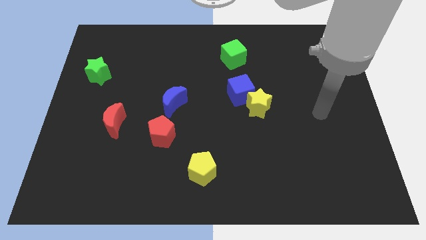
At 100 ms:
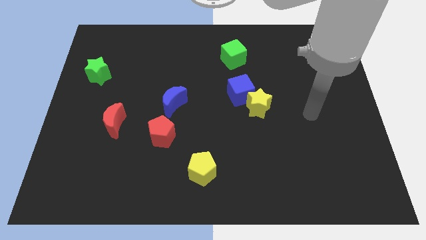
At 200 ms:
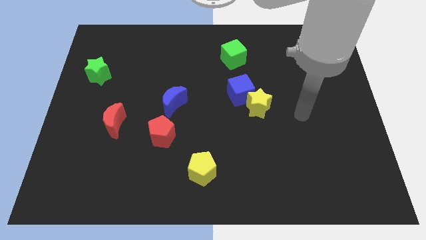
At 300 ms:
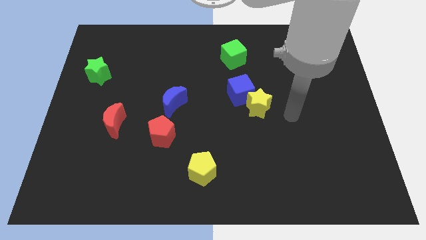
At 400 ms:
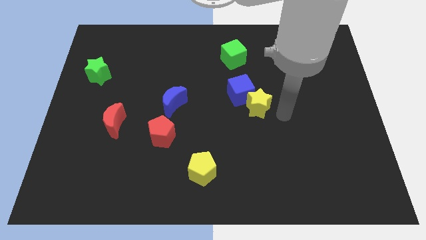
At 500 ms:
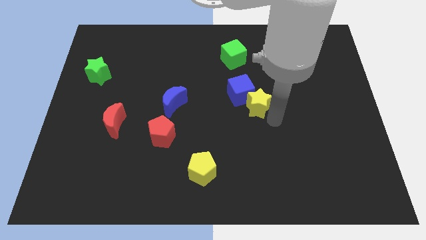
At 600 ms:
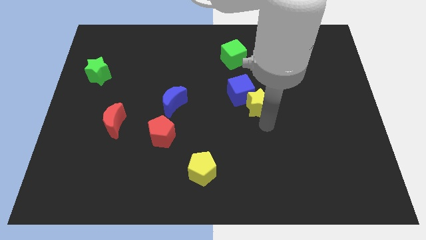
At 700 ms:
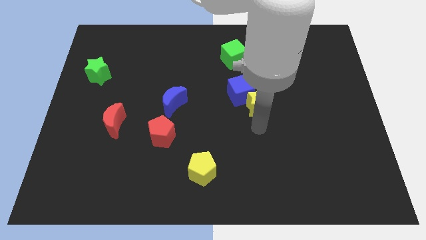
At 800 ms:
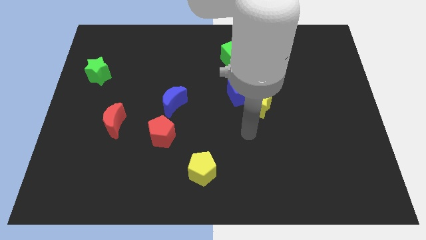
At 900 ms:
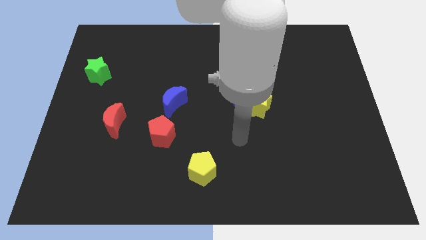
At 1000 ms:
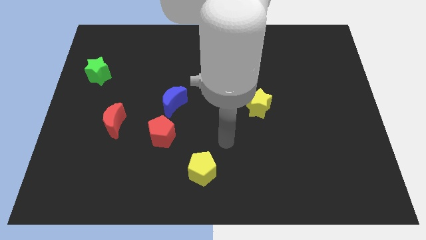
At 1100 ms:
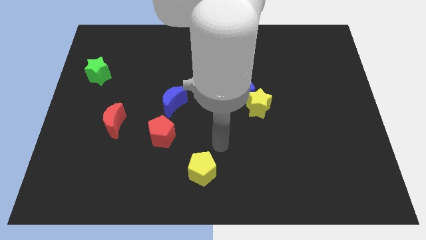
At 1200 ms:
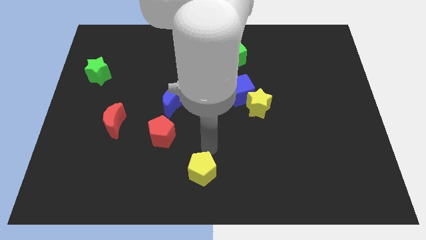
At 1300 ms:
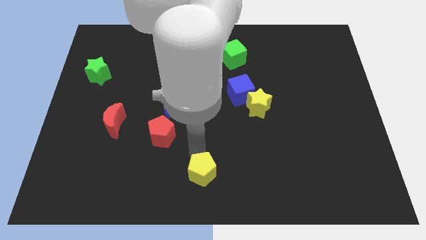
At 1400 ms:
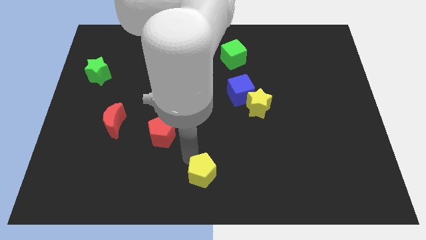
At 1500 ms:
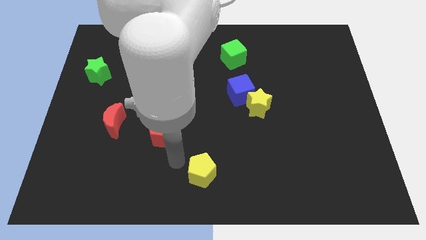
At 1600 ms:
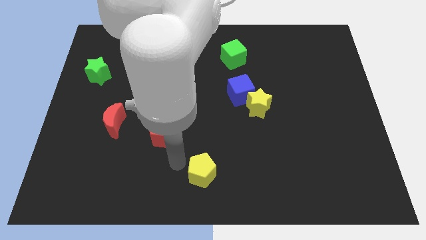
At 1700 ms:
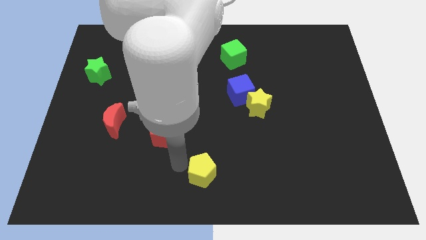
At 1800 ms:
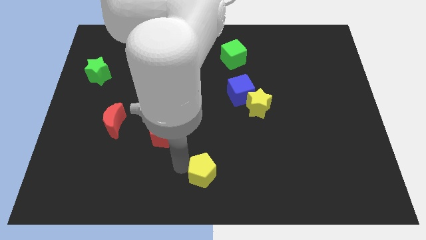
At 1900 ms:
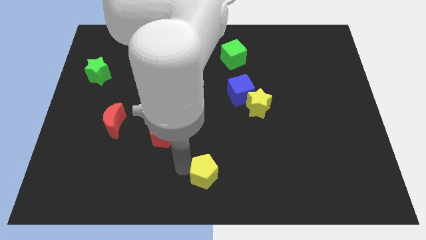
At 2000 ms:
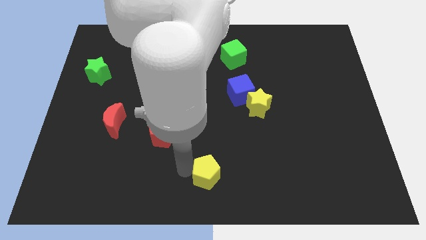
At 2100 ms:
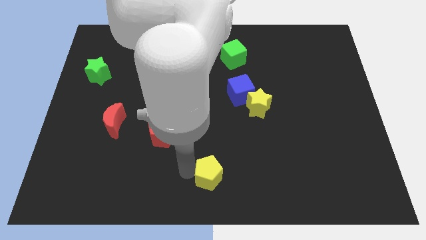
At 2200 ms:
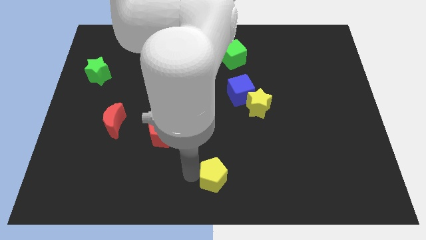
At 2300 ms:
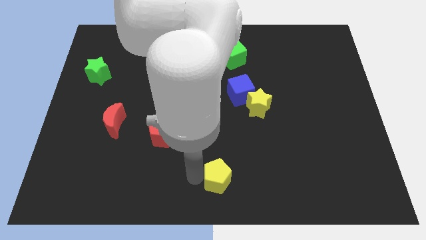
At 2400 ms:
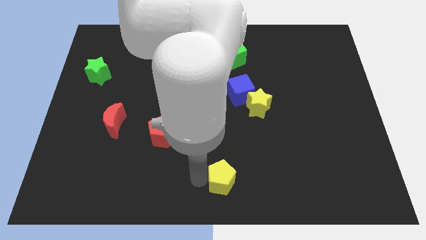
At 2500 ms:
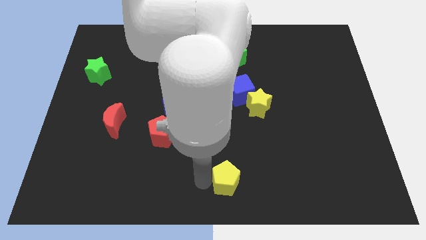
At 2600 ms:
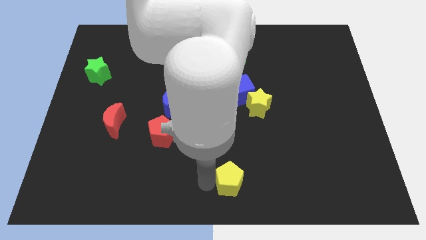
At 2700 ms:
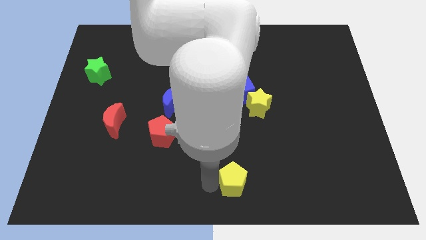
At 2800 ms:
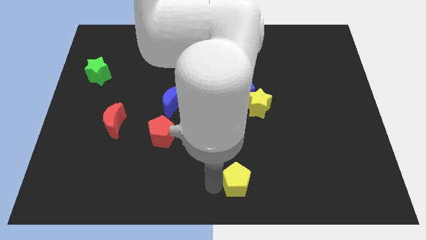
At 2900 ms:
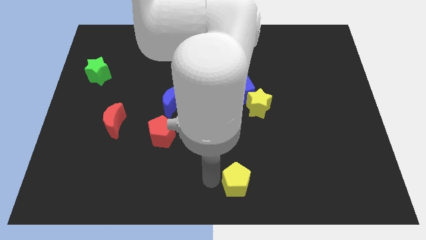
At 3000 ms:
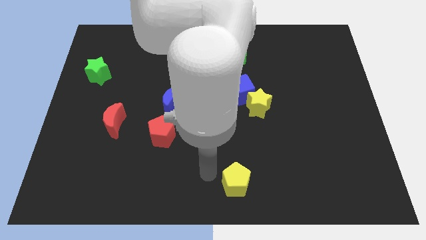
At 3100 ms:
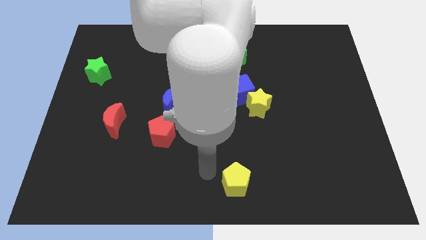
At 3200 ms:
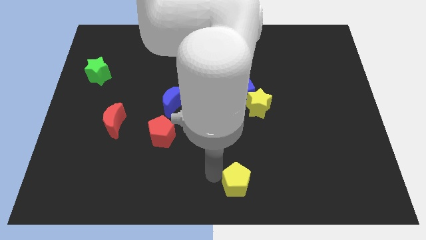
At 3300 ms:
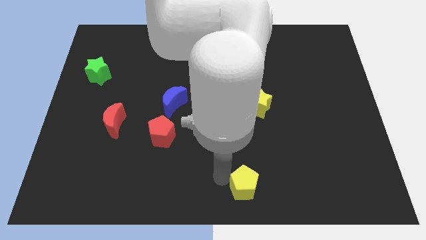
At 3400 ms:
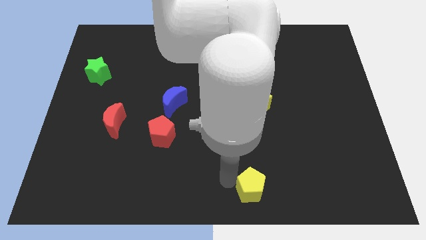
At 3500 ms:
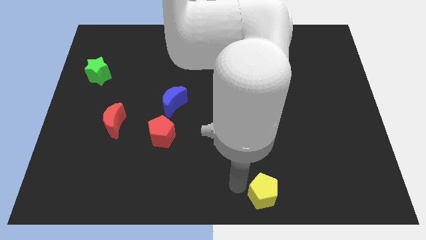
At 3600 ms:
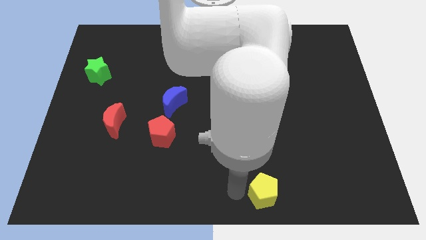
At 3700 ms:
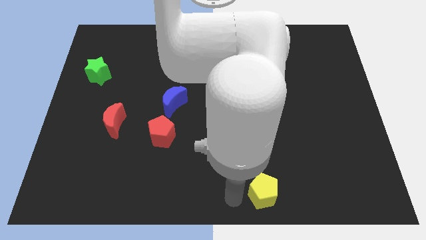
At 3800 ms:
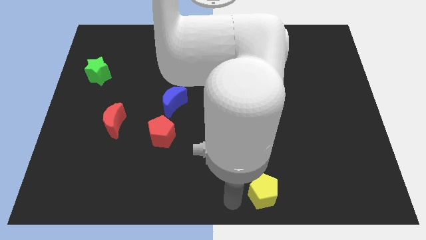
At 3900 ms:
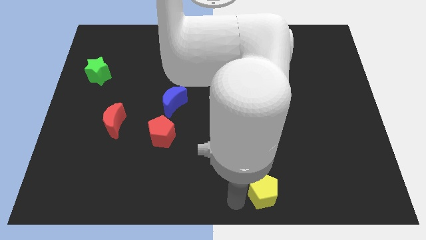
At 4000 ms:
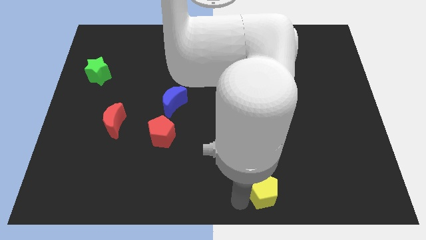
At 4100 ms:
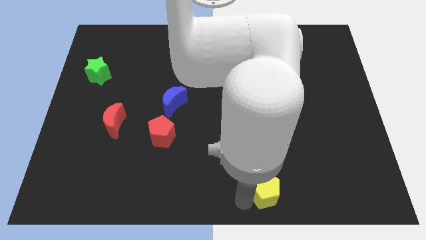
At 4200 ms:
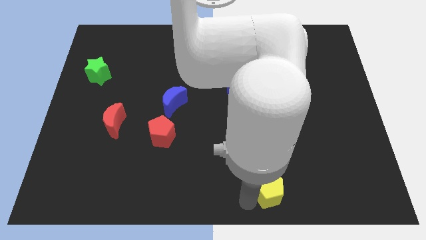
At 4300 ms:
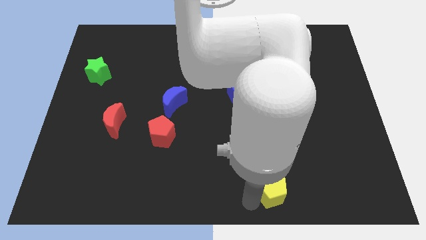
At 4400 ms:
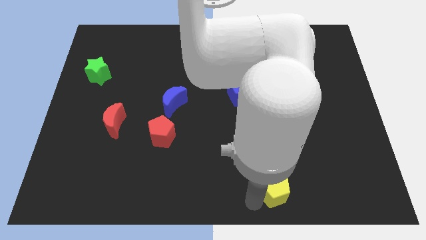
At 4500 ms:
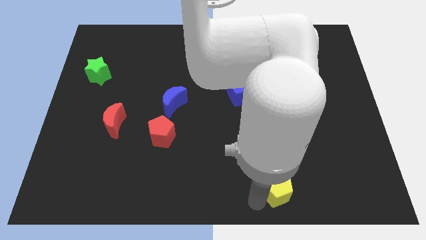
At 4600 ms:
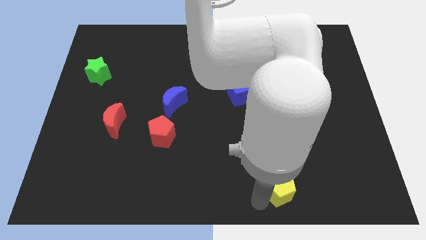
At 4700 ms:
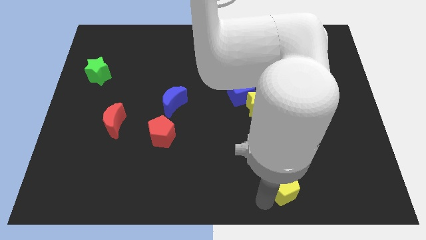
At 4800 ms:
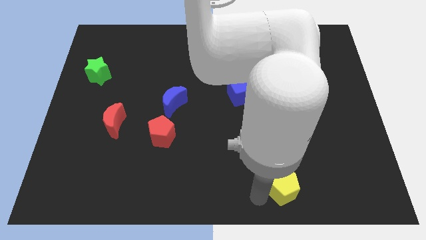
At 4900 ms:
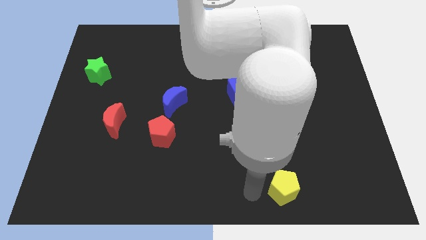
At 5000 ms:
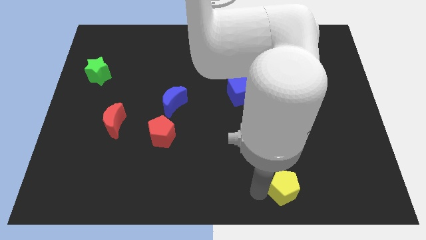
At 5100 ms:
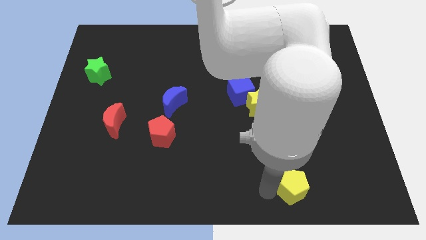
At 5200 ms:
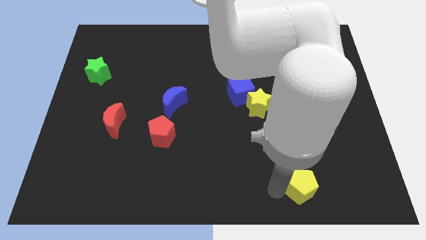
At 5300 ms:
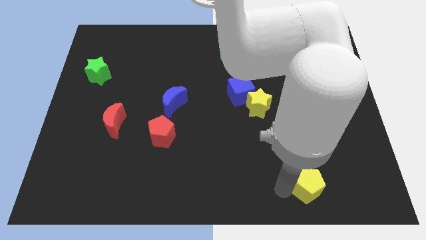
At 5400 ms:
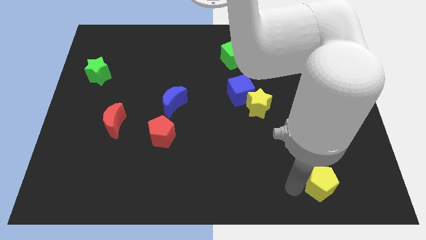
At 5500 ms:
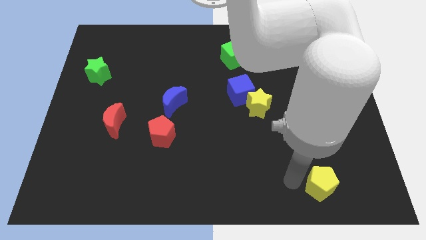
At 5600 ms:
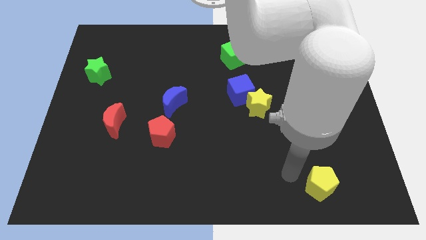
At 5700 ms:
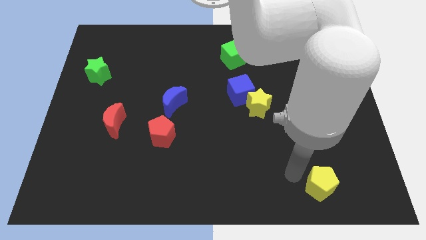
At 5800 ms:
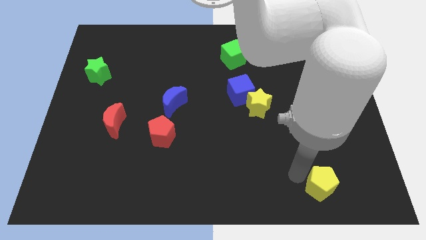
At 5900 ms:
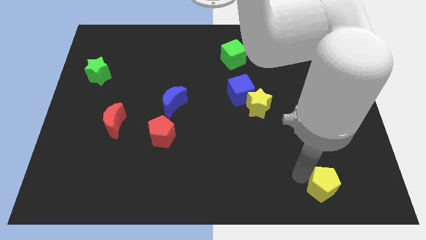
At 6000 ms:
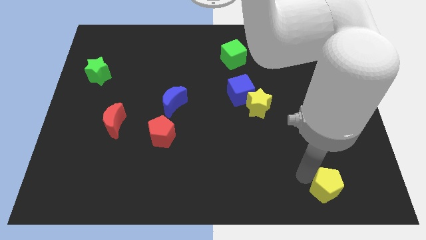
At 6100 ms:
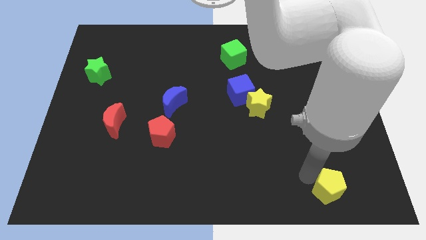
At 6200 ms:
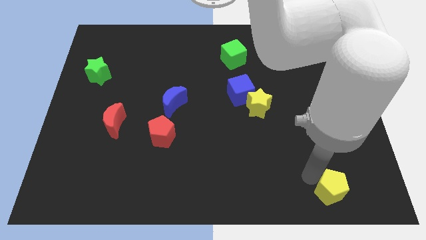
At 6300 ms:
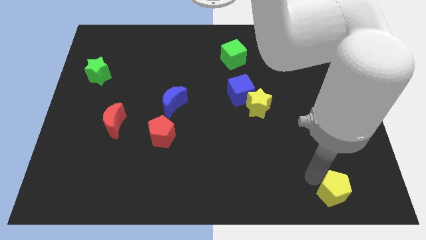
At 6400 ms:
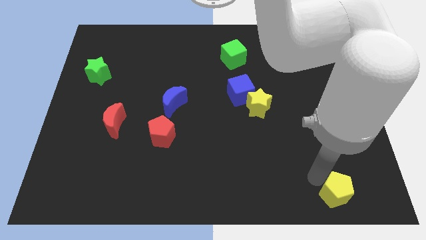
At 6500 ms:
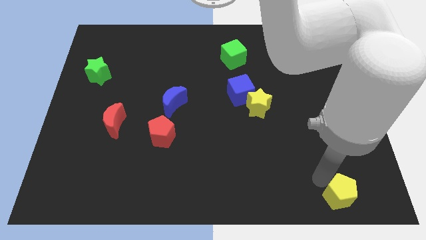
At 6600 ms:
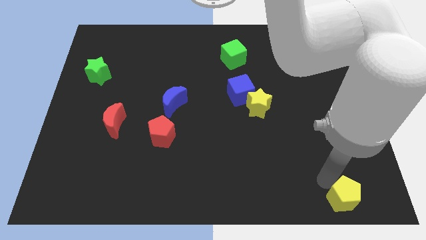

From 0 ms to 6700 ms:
move the yellow pentagon to the bottom right

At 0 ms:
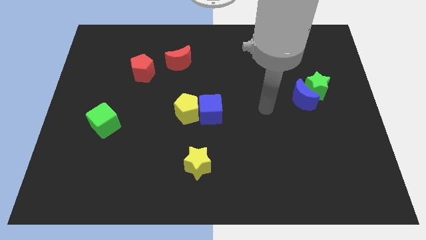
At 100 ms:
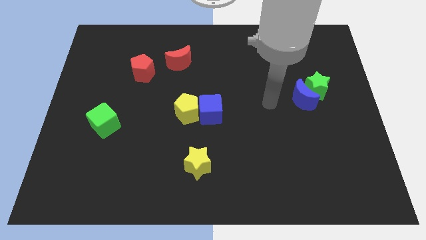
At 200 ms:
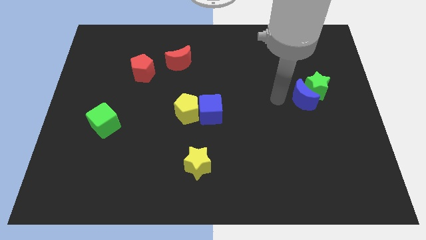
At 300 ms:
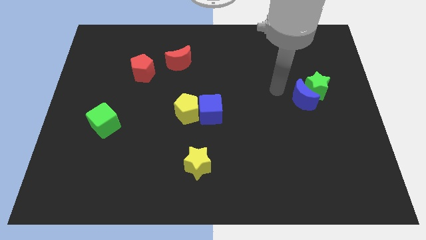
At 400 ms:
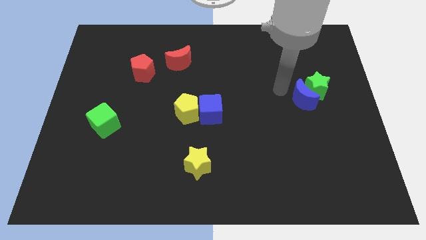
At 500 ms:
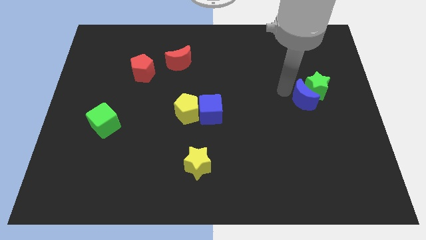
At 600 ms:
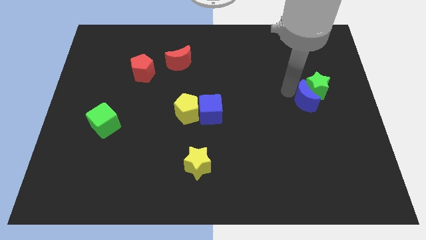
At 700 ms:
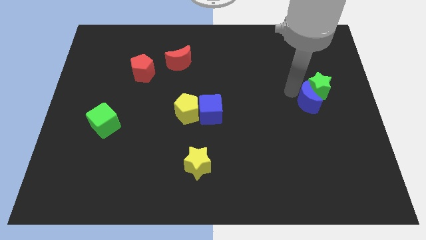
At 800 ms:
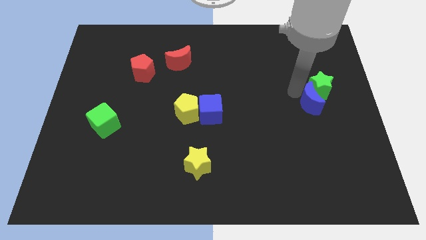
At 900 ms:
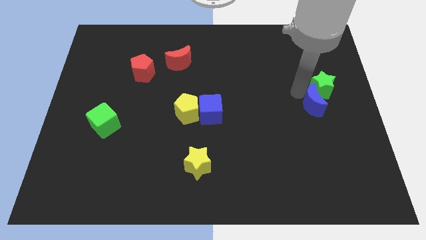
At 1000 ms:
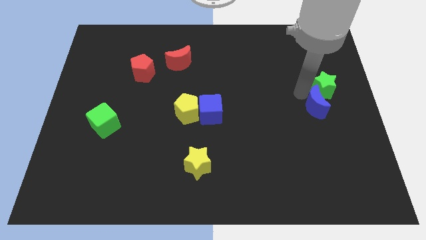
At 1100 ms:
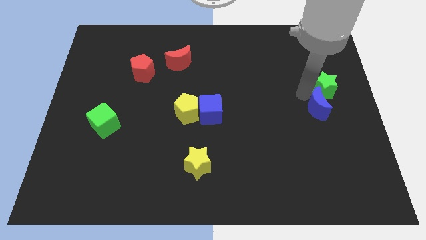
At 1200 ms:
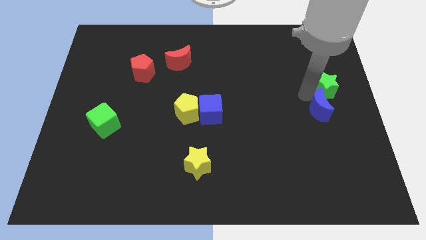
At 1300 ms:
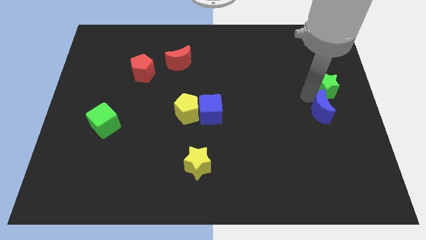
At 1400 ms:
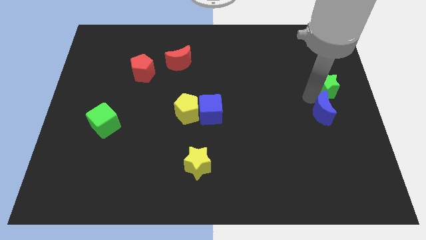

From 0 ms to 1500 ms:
slide the blue moon to the right side of the board
